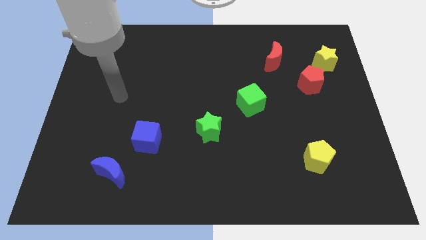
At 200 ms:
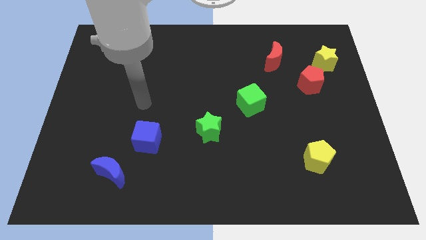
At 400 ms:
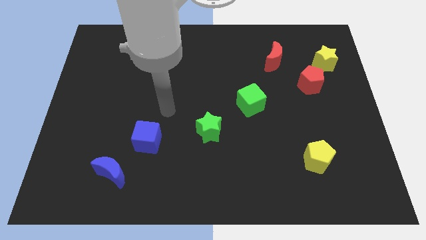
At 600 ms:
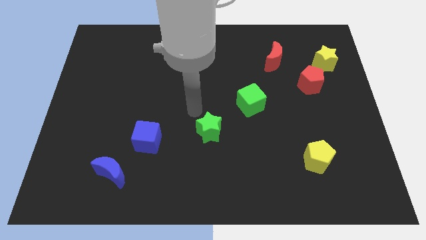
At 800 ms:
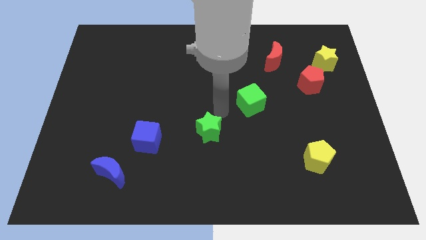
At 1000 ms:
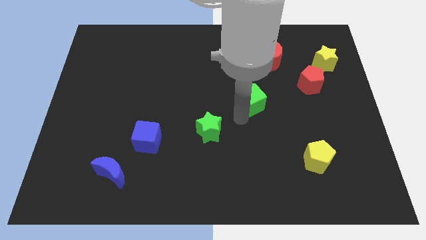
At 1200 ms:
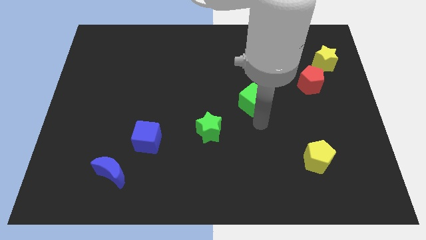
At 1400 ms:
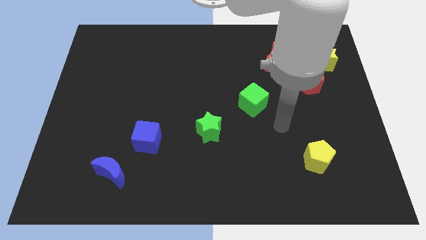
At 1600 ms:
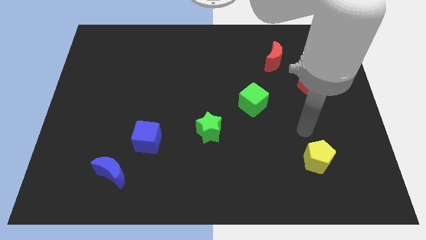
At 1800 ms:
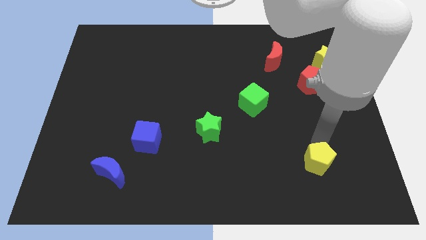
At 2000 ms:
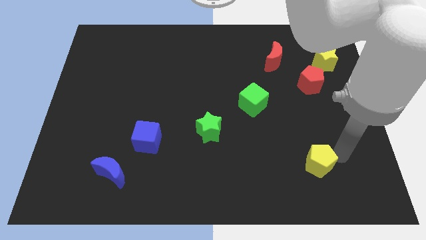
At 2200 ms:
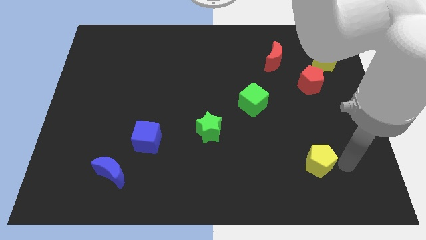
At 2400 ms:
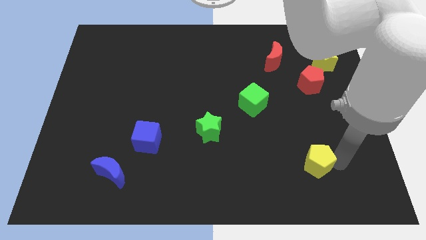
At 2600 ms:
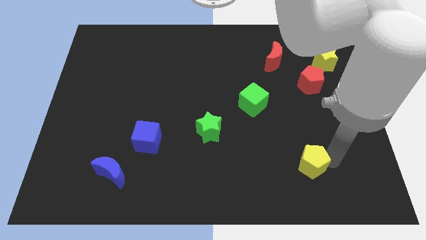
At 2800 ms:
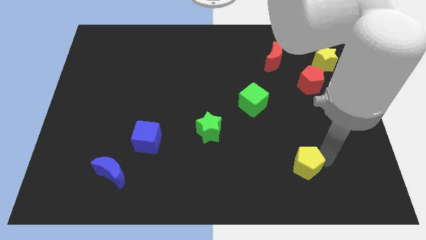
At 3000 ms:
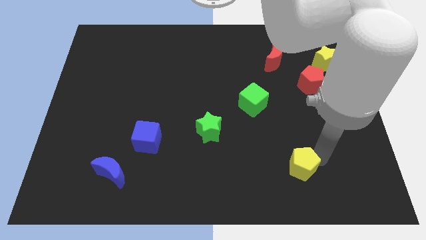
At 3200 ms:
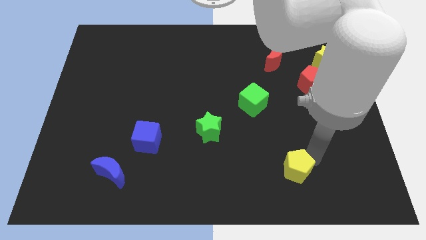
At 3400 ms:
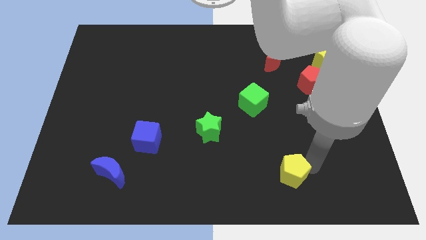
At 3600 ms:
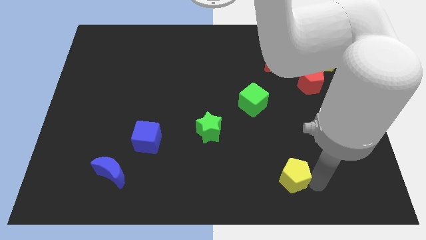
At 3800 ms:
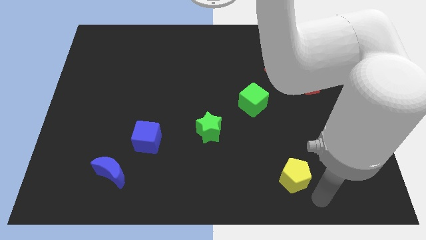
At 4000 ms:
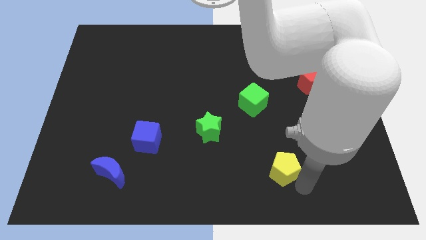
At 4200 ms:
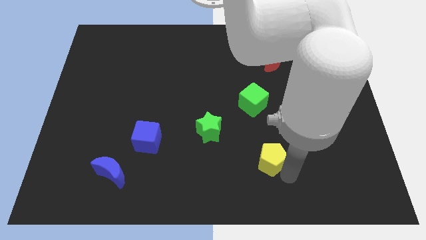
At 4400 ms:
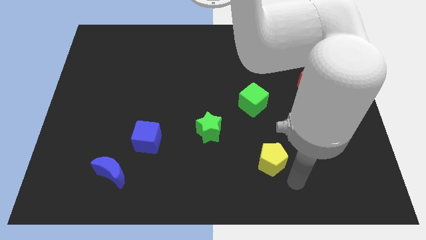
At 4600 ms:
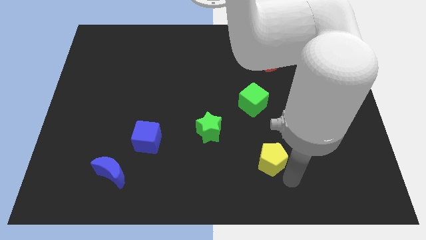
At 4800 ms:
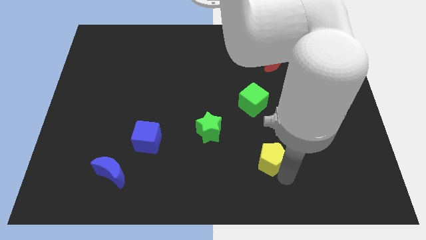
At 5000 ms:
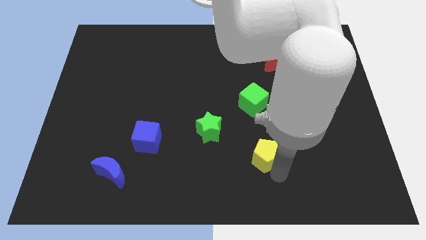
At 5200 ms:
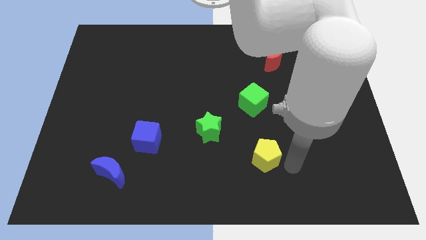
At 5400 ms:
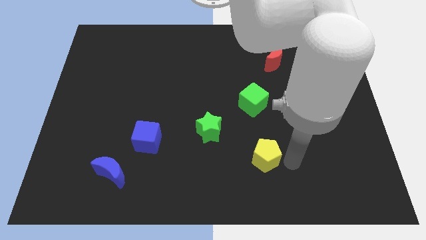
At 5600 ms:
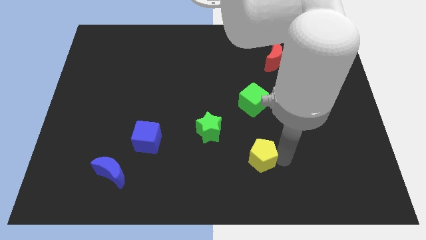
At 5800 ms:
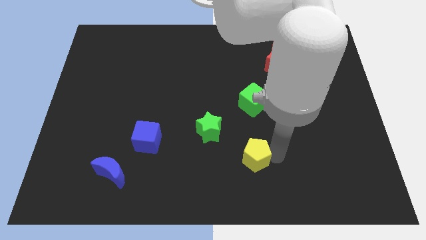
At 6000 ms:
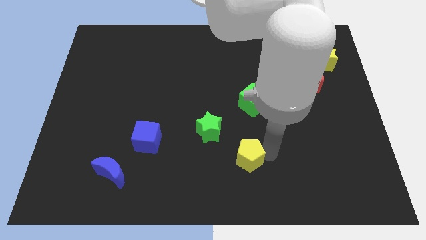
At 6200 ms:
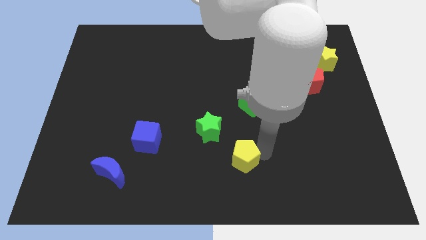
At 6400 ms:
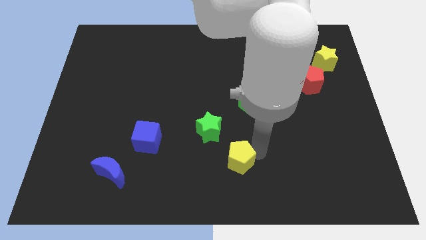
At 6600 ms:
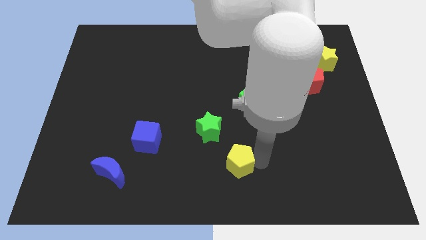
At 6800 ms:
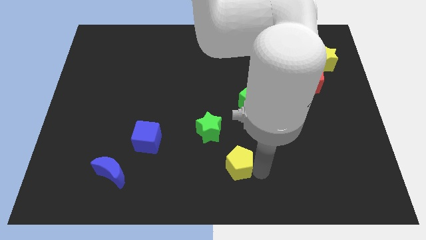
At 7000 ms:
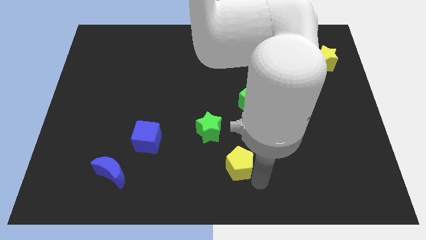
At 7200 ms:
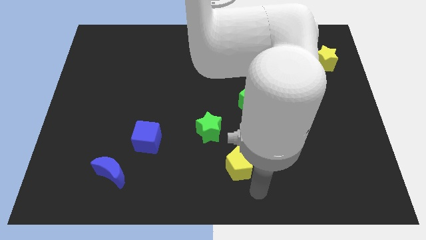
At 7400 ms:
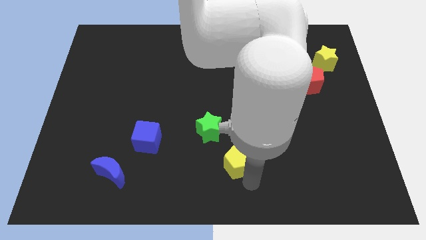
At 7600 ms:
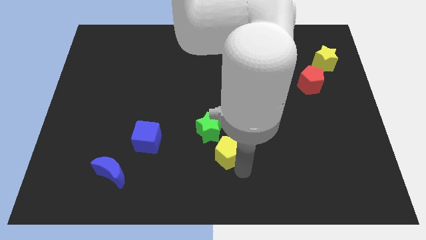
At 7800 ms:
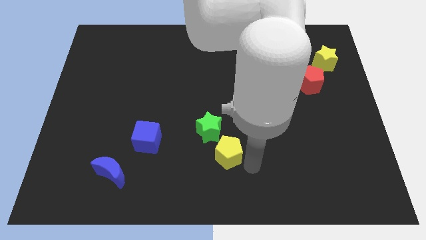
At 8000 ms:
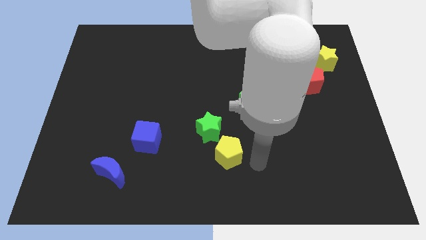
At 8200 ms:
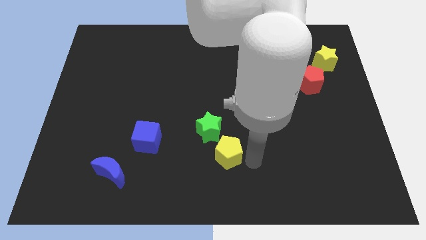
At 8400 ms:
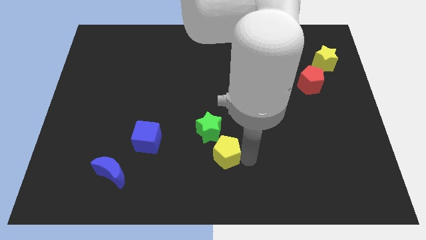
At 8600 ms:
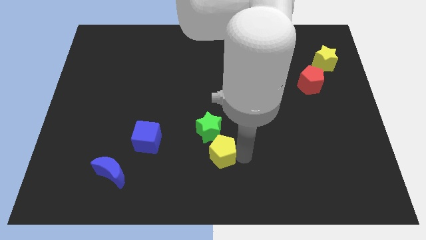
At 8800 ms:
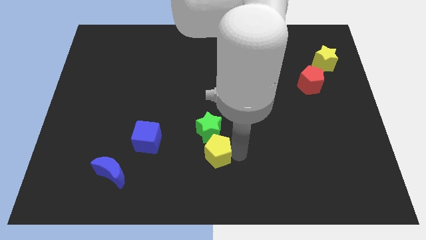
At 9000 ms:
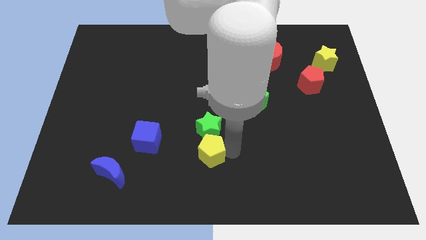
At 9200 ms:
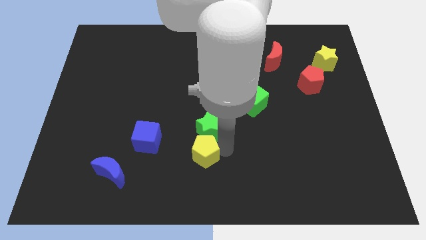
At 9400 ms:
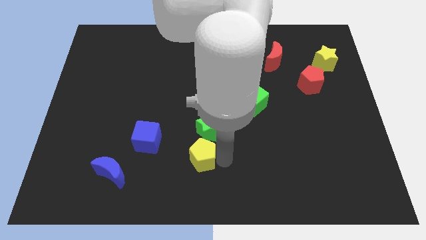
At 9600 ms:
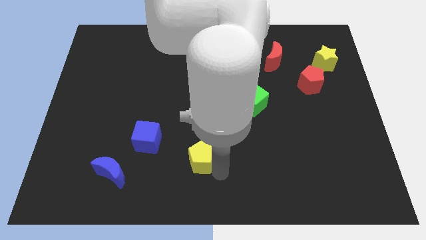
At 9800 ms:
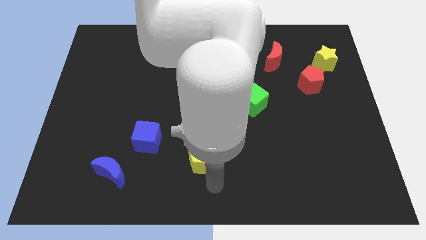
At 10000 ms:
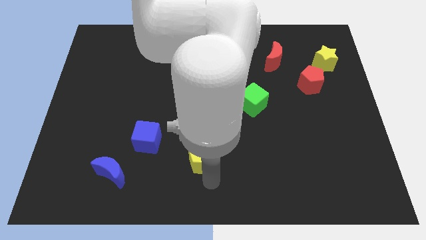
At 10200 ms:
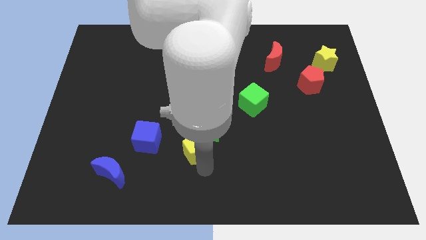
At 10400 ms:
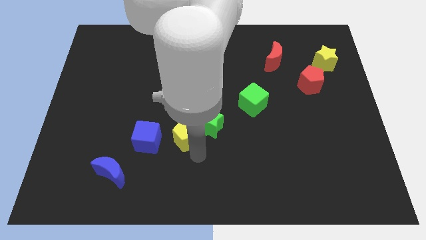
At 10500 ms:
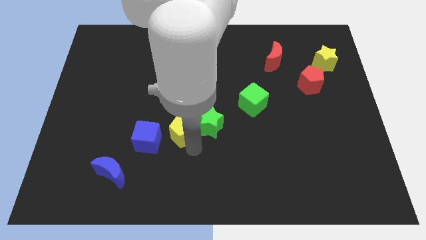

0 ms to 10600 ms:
slide the yellow pentagon to the top right side of the blue cube

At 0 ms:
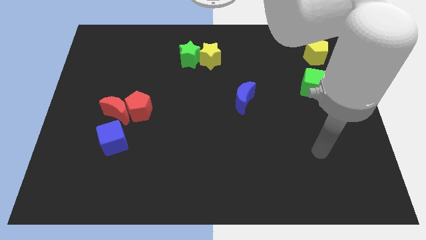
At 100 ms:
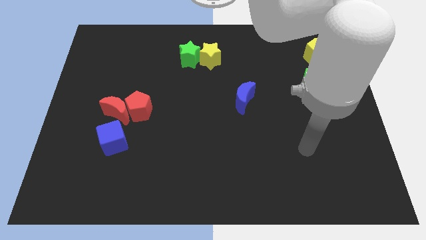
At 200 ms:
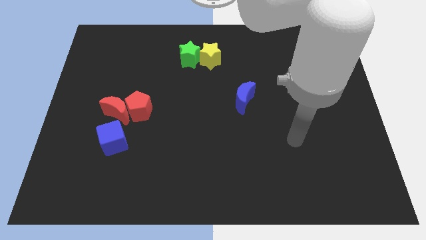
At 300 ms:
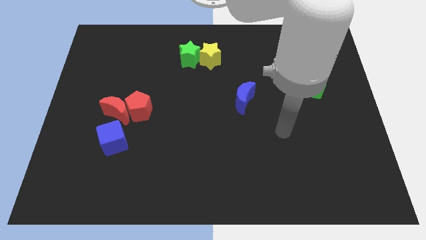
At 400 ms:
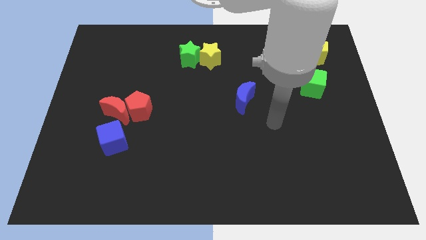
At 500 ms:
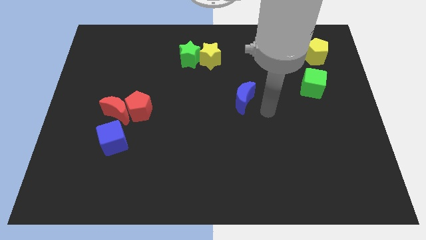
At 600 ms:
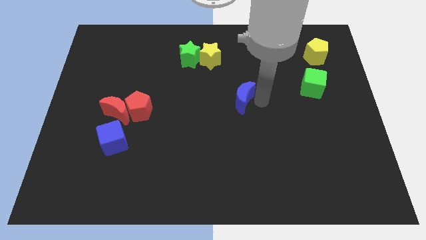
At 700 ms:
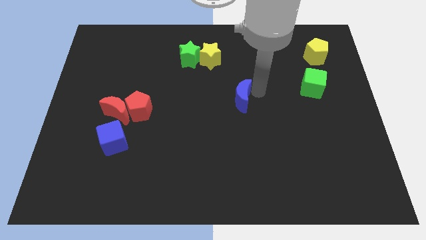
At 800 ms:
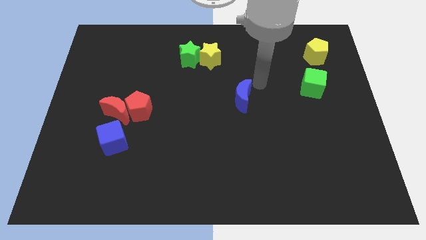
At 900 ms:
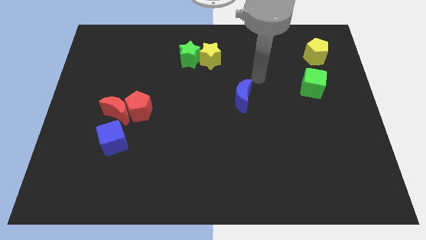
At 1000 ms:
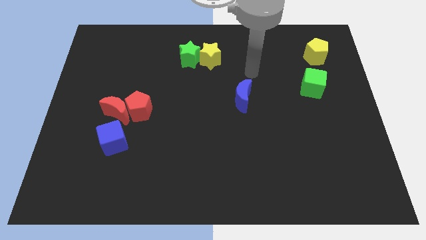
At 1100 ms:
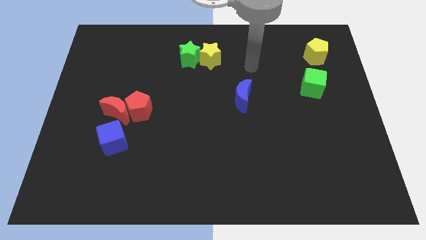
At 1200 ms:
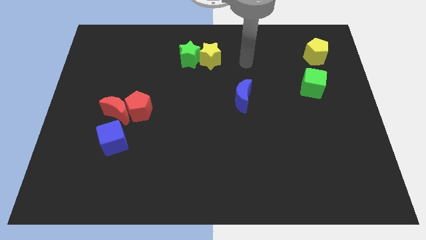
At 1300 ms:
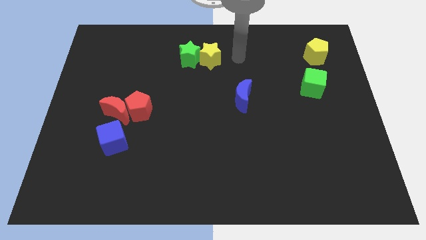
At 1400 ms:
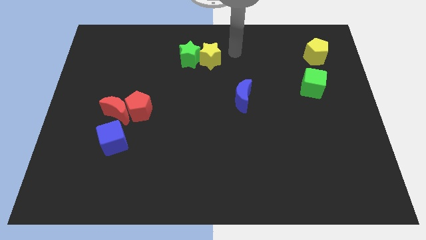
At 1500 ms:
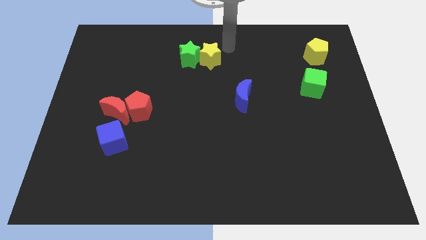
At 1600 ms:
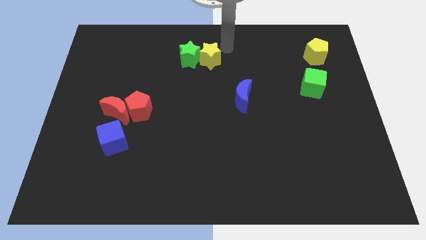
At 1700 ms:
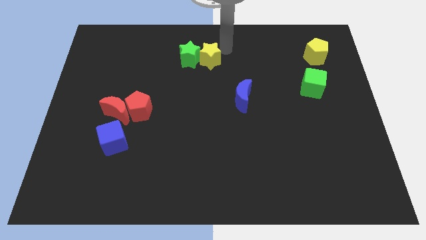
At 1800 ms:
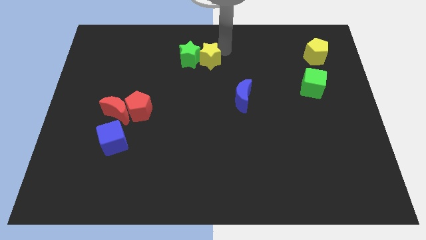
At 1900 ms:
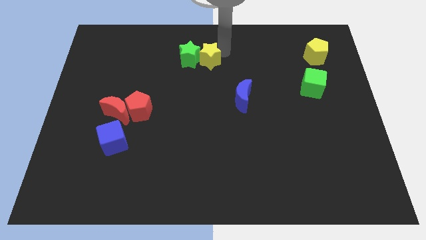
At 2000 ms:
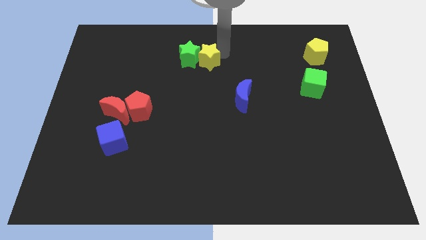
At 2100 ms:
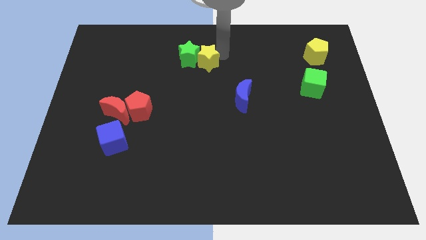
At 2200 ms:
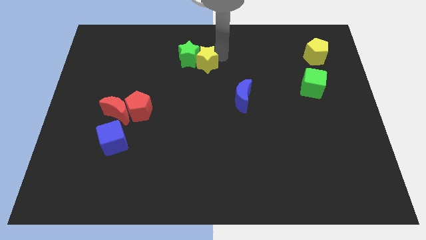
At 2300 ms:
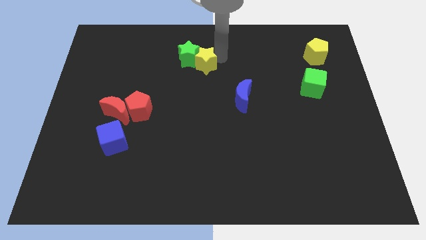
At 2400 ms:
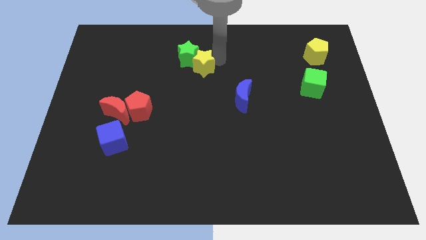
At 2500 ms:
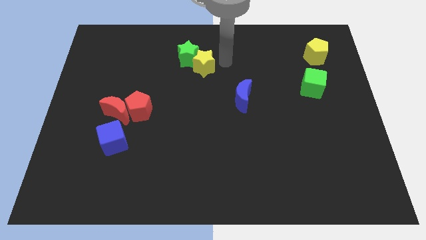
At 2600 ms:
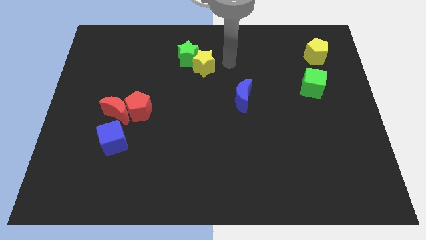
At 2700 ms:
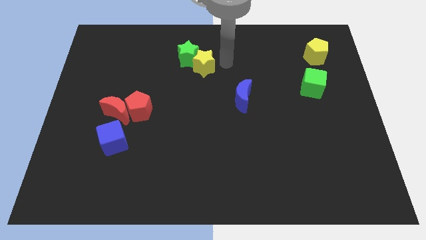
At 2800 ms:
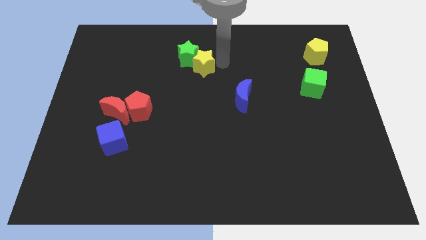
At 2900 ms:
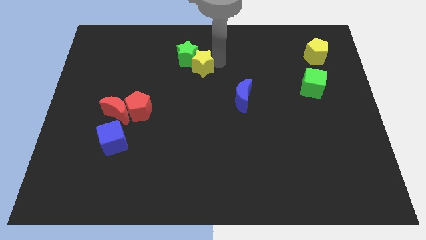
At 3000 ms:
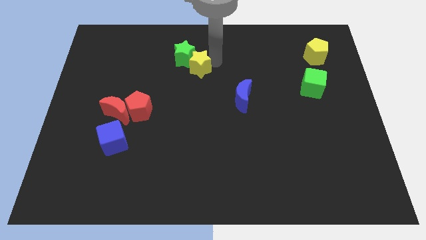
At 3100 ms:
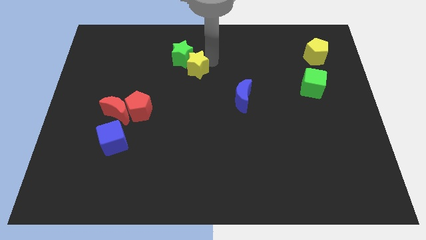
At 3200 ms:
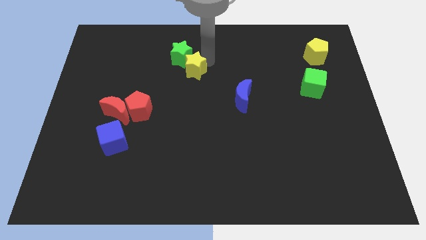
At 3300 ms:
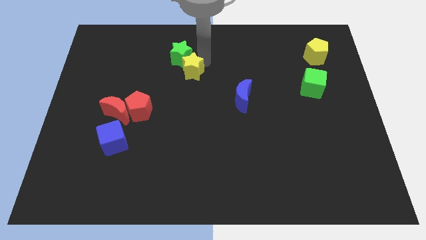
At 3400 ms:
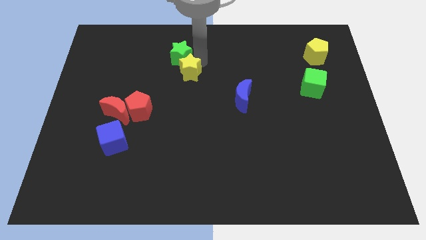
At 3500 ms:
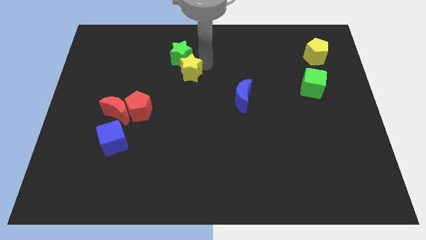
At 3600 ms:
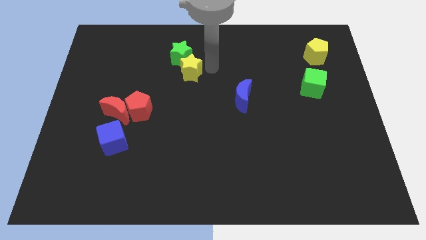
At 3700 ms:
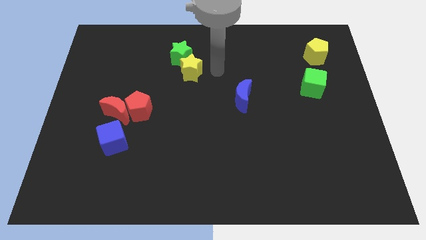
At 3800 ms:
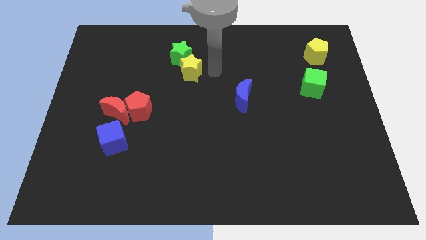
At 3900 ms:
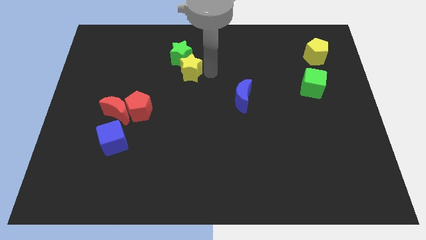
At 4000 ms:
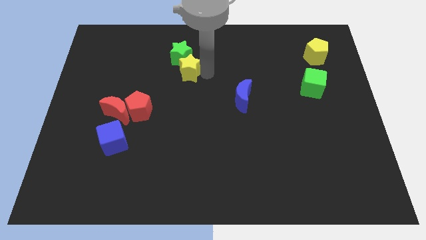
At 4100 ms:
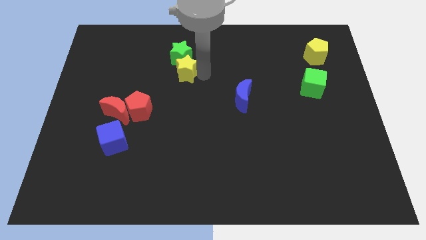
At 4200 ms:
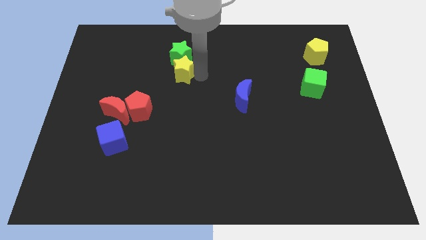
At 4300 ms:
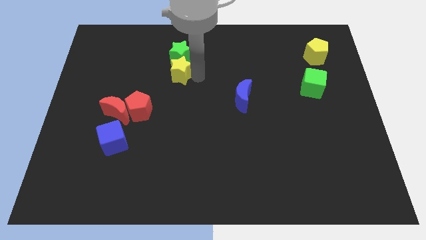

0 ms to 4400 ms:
move the yellow star diagonally down and to the left of the green star
